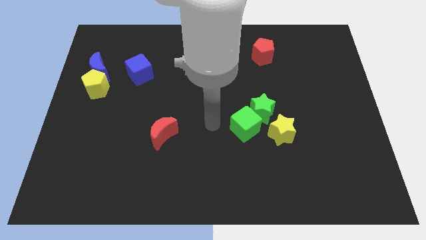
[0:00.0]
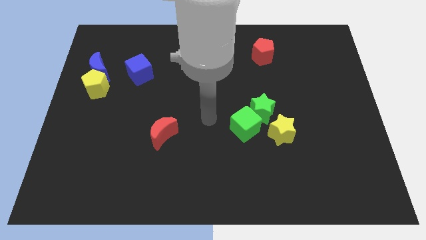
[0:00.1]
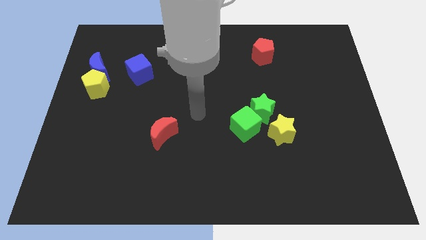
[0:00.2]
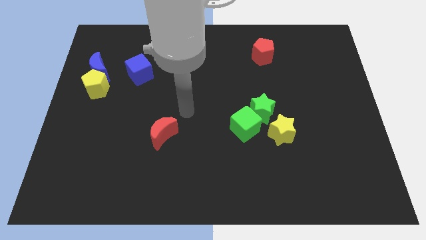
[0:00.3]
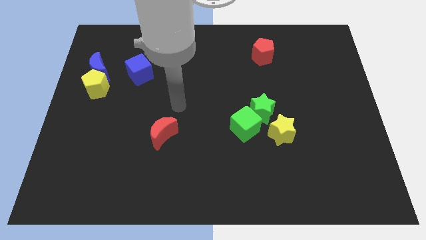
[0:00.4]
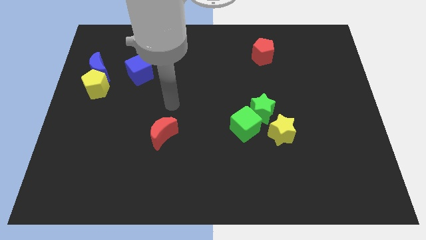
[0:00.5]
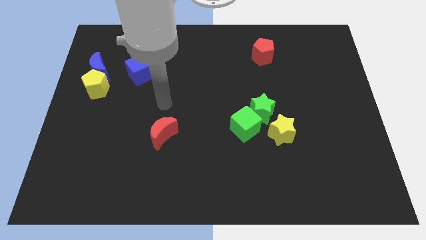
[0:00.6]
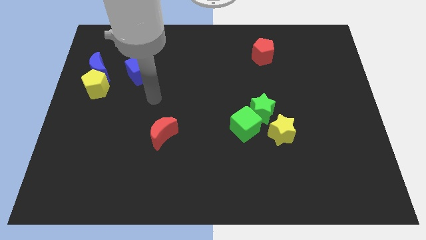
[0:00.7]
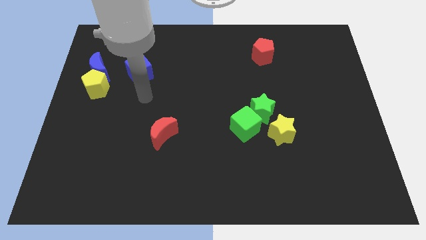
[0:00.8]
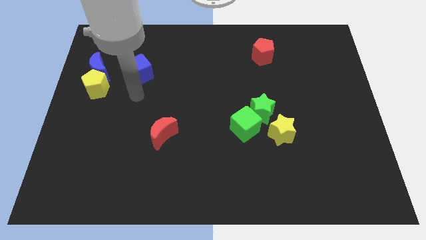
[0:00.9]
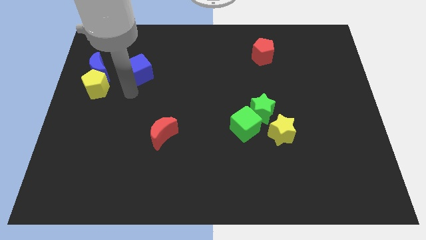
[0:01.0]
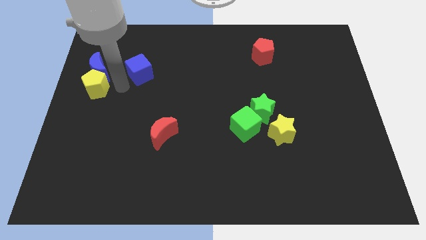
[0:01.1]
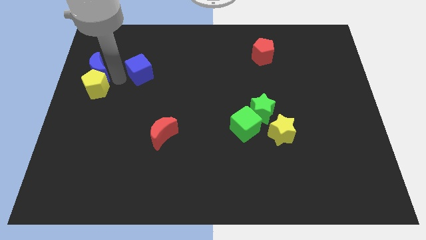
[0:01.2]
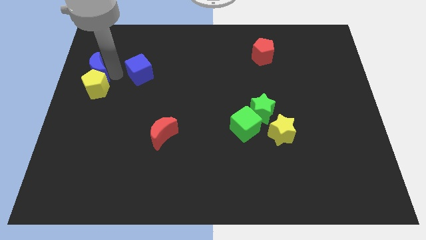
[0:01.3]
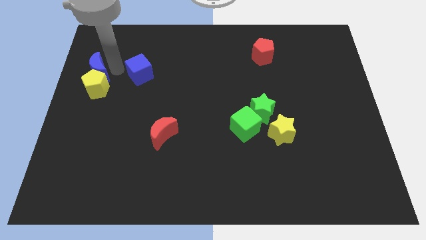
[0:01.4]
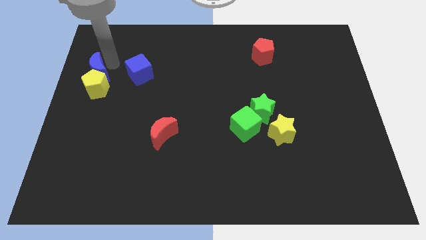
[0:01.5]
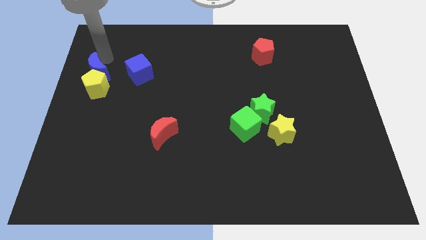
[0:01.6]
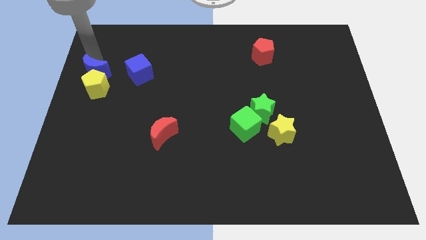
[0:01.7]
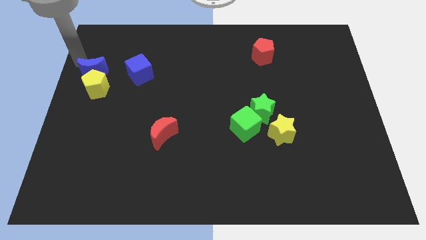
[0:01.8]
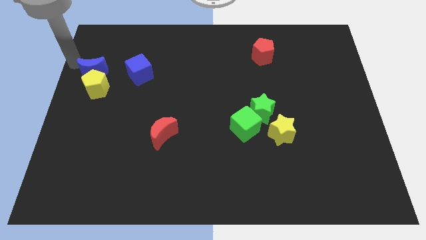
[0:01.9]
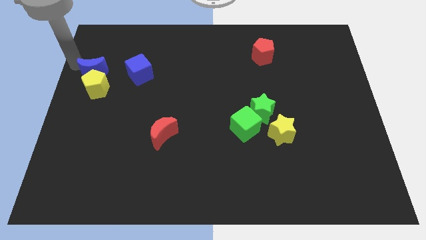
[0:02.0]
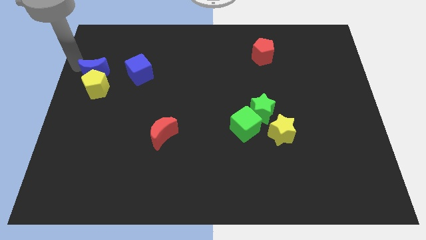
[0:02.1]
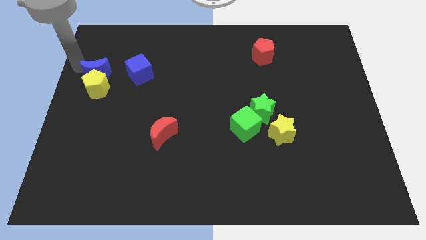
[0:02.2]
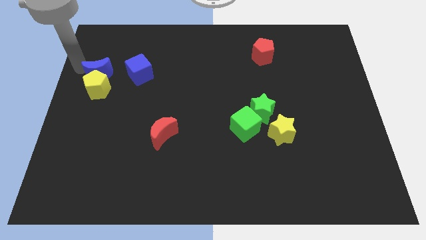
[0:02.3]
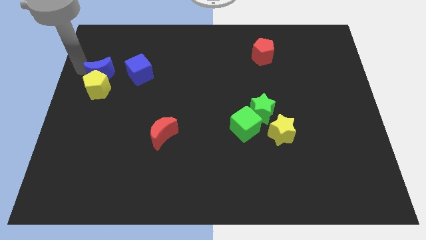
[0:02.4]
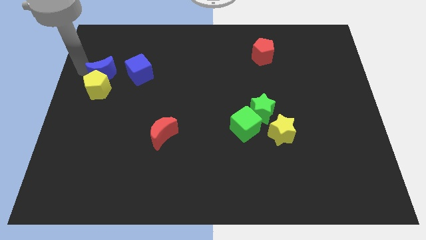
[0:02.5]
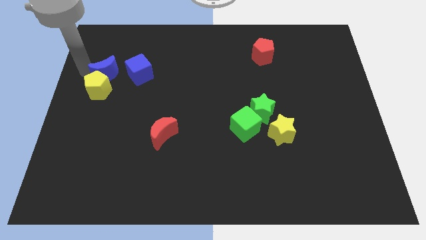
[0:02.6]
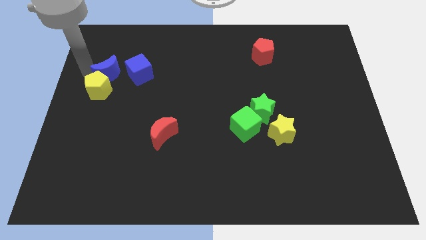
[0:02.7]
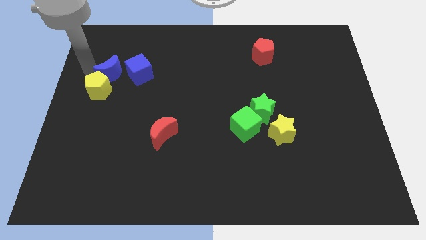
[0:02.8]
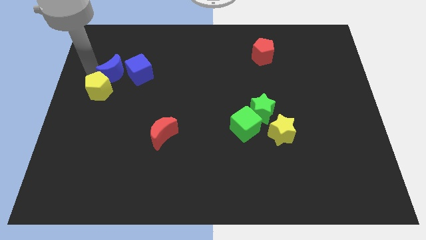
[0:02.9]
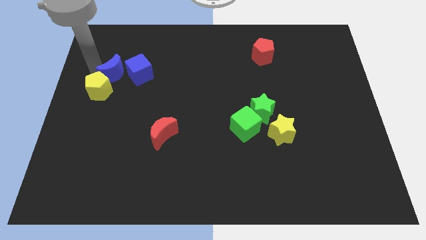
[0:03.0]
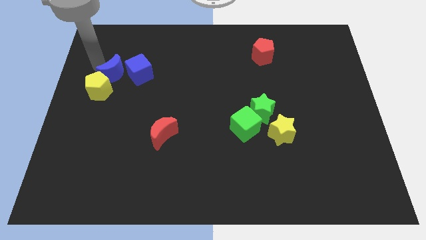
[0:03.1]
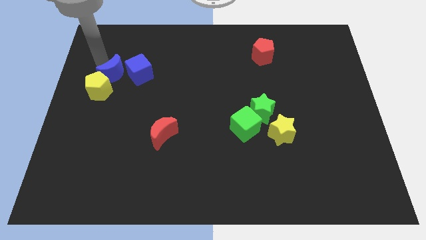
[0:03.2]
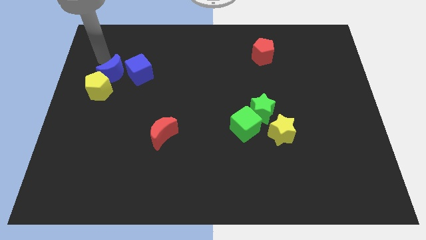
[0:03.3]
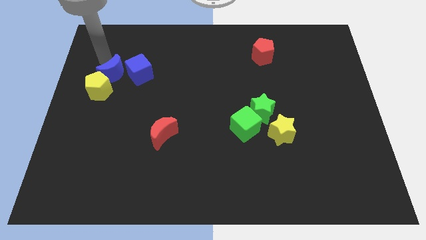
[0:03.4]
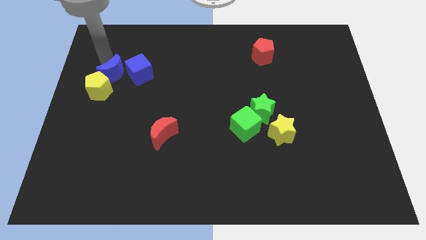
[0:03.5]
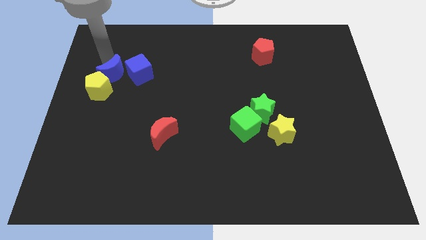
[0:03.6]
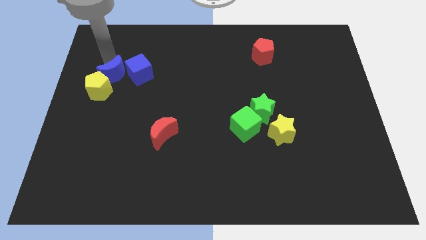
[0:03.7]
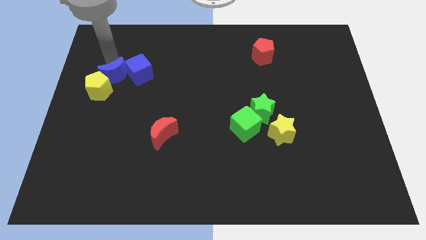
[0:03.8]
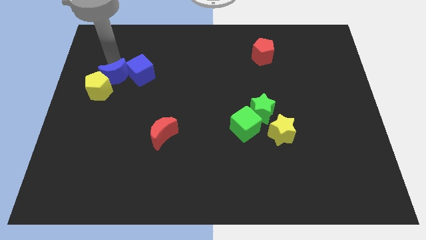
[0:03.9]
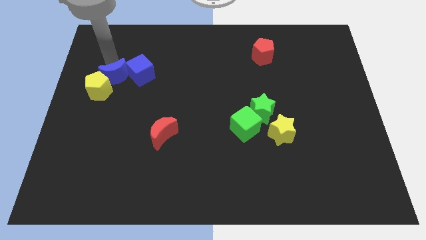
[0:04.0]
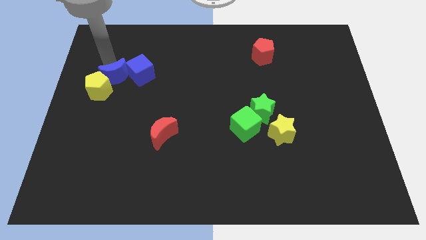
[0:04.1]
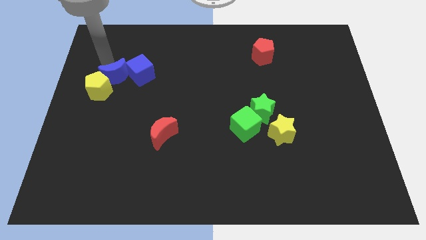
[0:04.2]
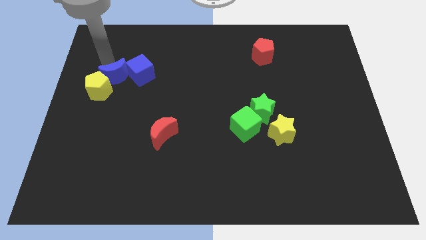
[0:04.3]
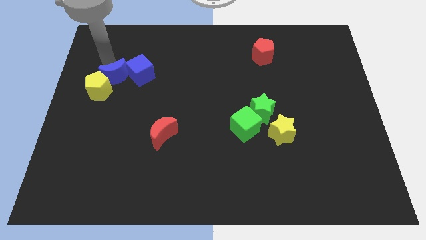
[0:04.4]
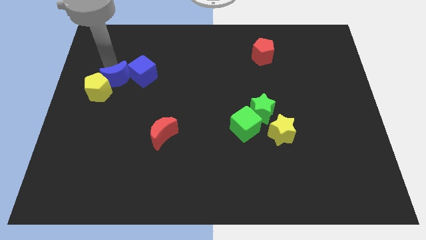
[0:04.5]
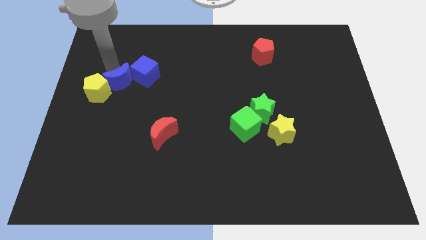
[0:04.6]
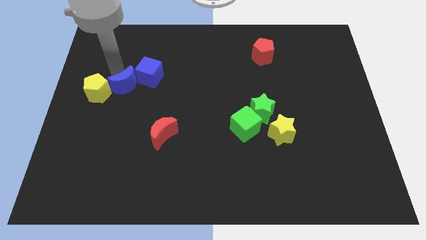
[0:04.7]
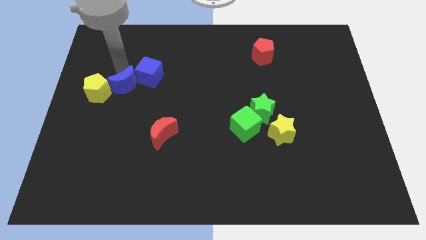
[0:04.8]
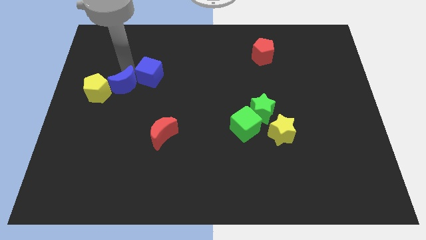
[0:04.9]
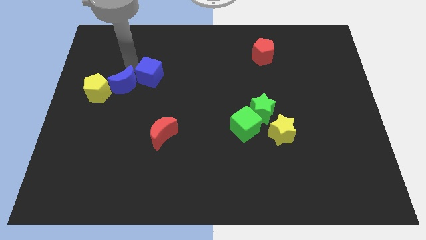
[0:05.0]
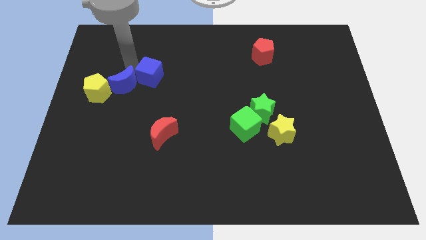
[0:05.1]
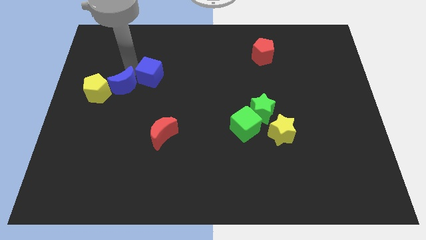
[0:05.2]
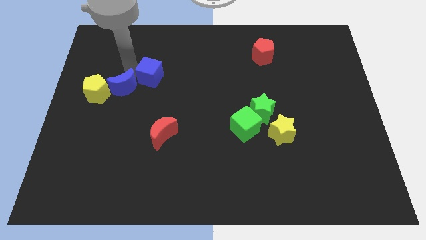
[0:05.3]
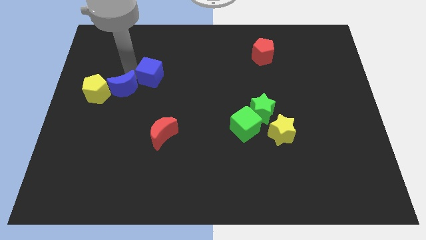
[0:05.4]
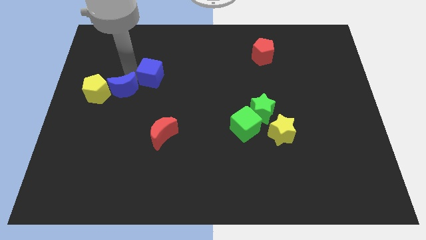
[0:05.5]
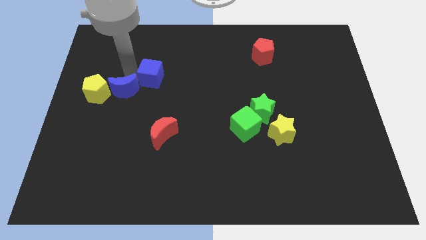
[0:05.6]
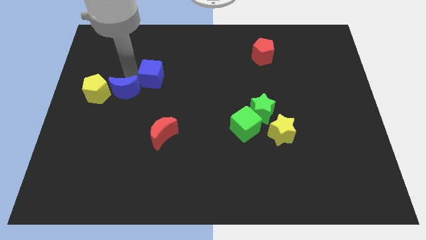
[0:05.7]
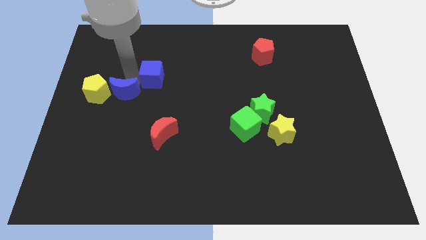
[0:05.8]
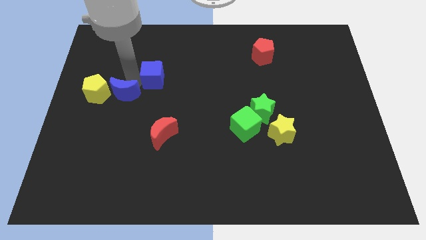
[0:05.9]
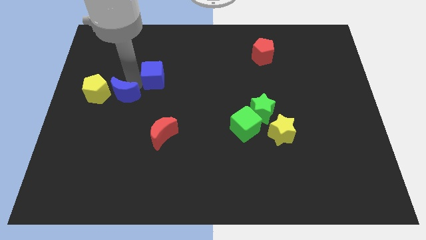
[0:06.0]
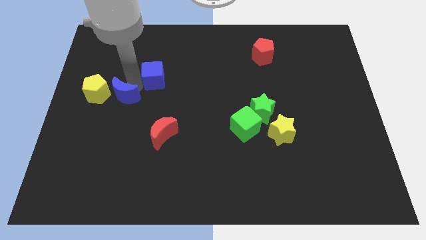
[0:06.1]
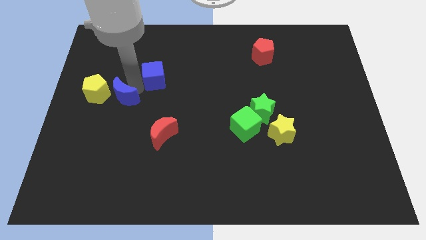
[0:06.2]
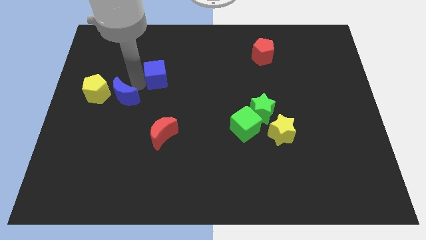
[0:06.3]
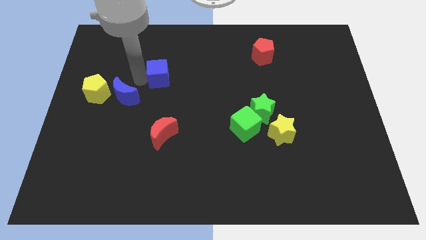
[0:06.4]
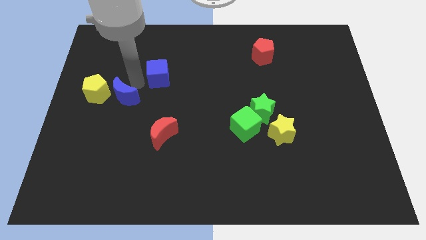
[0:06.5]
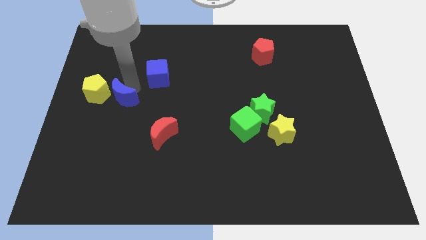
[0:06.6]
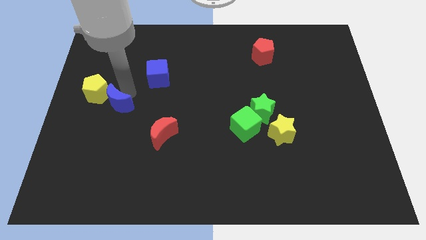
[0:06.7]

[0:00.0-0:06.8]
push the blue moon somewhat downwards

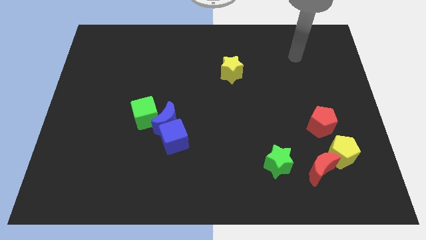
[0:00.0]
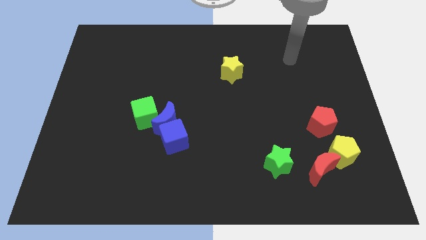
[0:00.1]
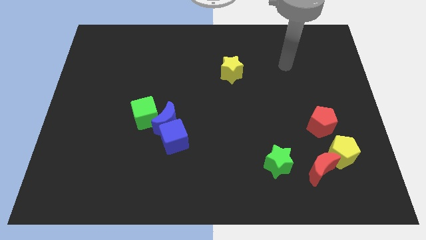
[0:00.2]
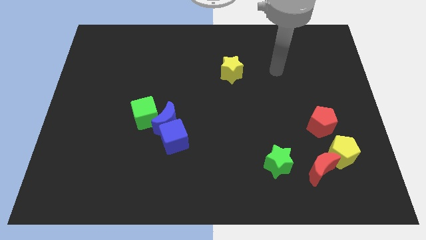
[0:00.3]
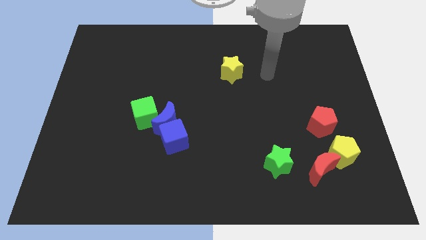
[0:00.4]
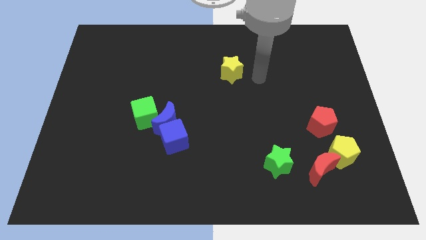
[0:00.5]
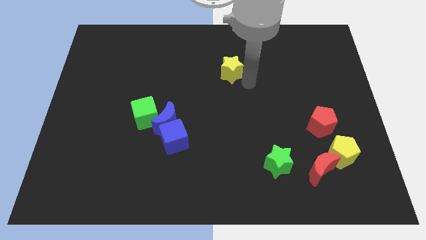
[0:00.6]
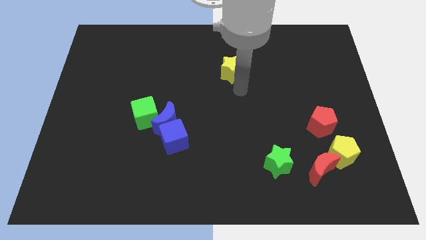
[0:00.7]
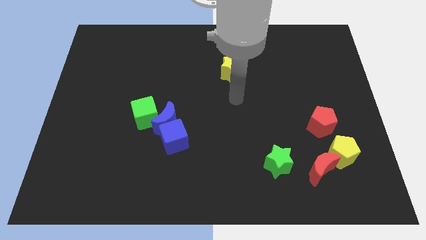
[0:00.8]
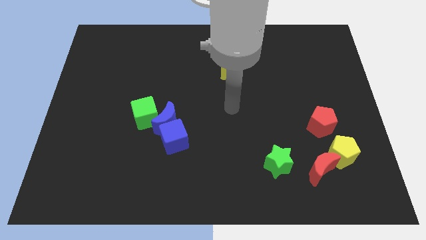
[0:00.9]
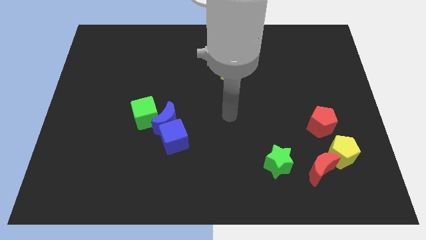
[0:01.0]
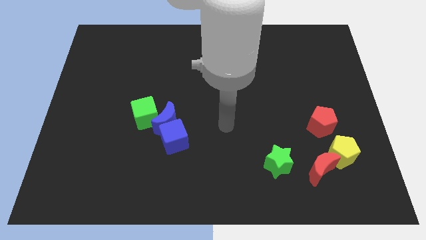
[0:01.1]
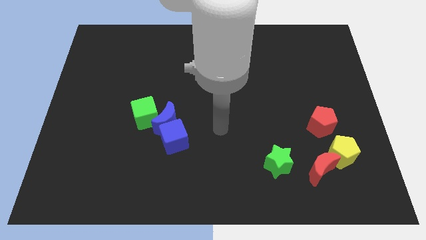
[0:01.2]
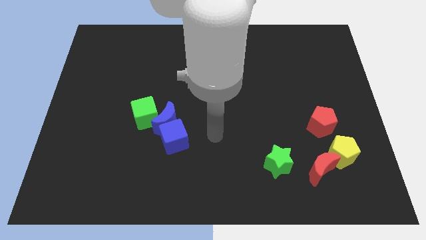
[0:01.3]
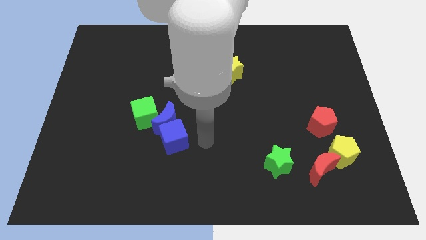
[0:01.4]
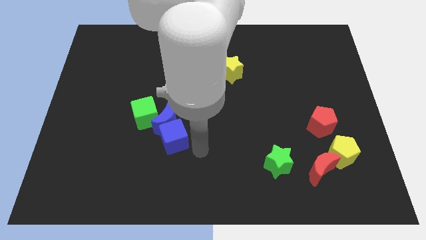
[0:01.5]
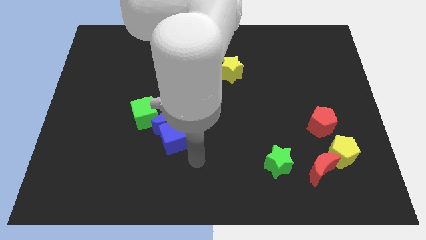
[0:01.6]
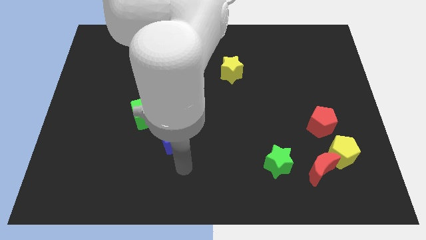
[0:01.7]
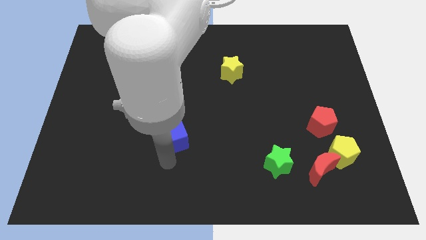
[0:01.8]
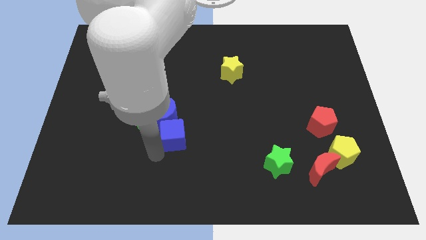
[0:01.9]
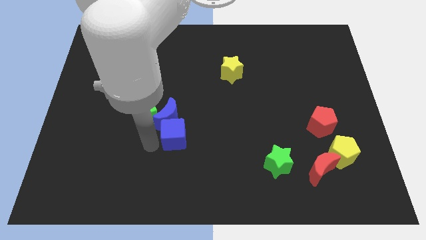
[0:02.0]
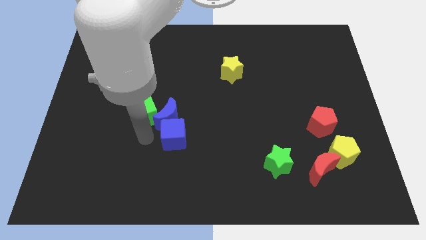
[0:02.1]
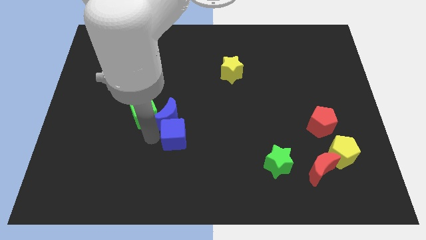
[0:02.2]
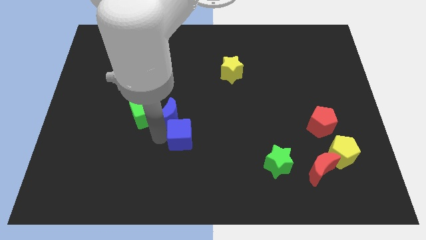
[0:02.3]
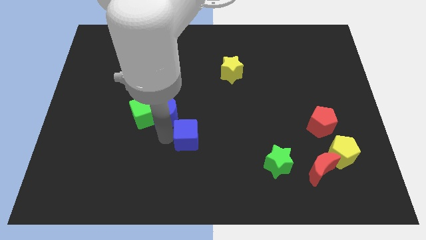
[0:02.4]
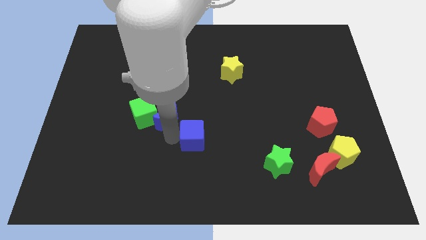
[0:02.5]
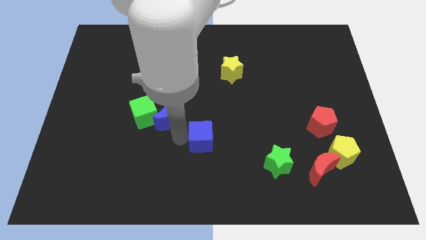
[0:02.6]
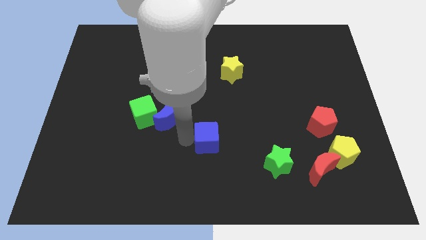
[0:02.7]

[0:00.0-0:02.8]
slightly push the blue cube to the right
